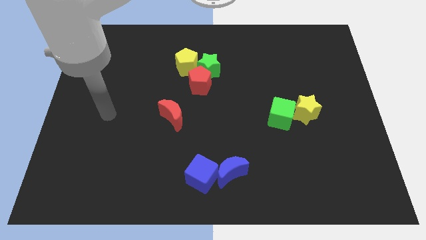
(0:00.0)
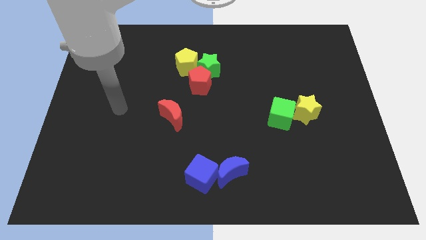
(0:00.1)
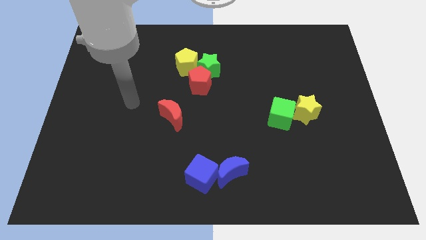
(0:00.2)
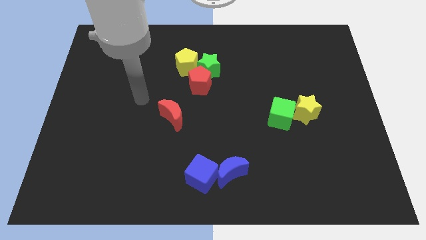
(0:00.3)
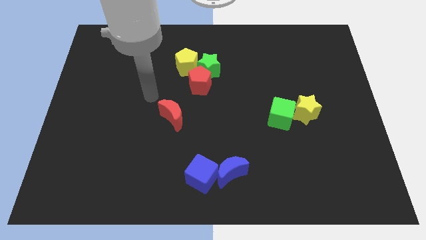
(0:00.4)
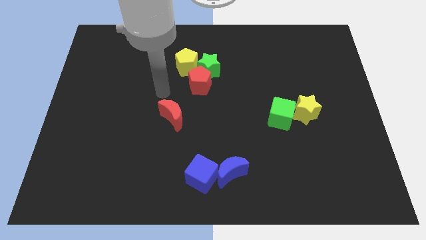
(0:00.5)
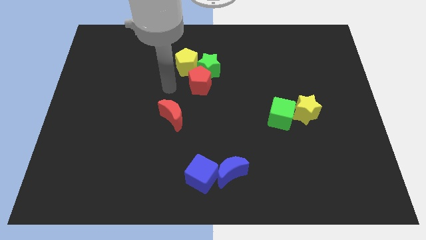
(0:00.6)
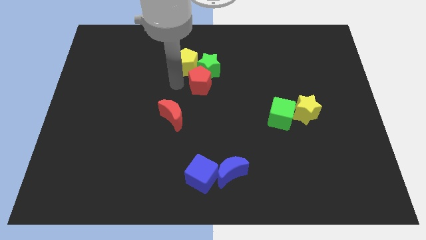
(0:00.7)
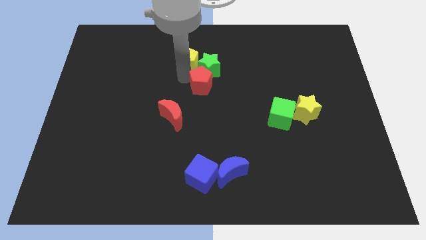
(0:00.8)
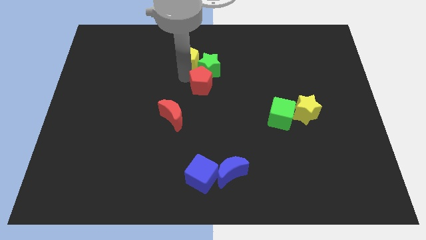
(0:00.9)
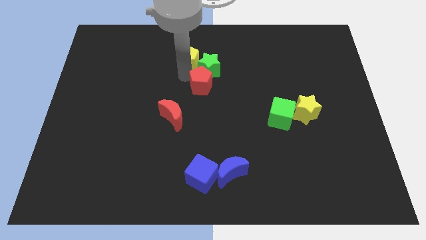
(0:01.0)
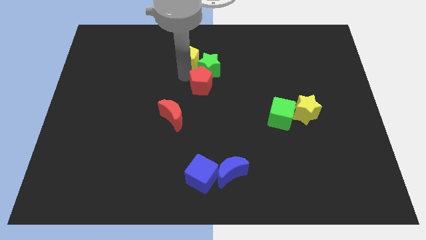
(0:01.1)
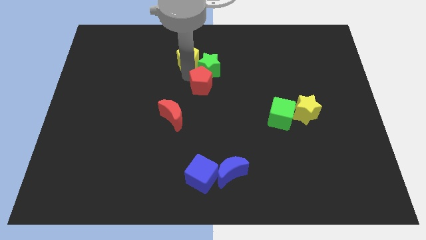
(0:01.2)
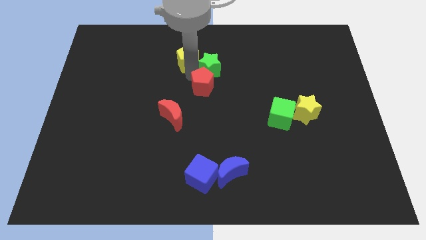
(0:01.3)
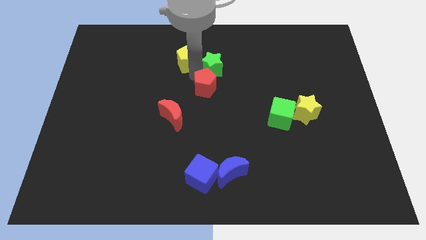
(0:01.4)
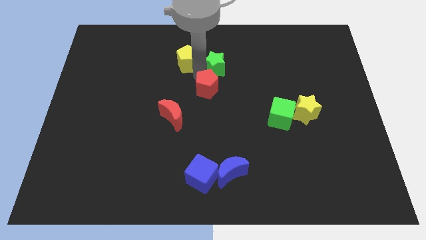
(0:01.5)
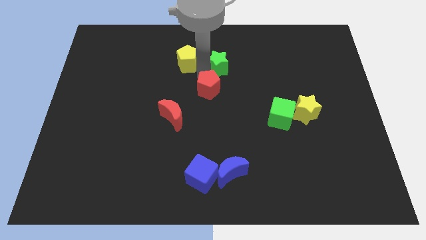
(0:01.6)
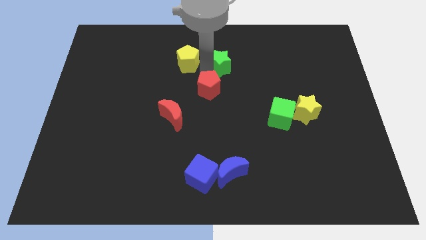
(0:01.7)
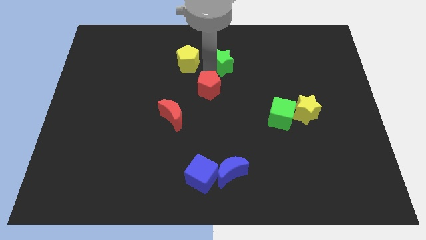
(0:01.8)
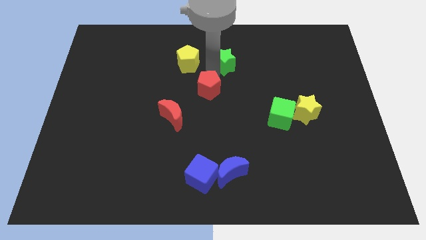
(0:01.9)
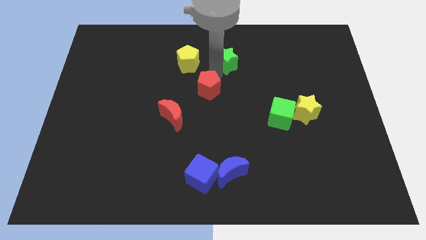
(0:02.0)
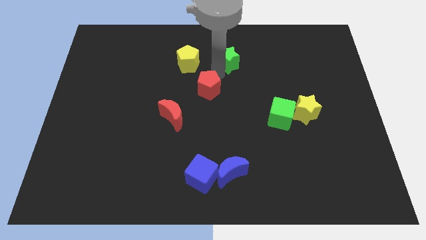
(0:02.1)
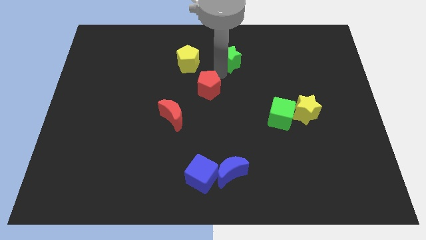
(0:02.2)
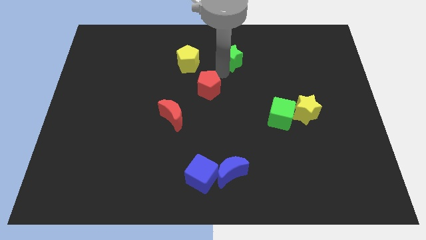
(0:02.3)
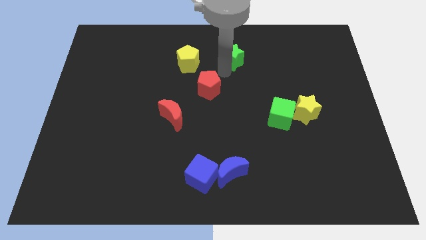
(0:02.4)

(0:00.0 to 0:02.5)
pull the green star apart from the red pentagon and yellow pentagon

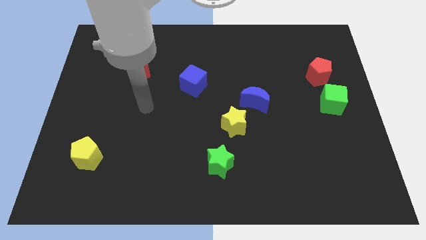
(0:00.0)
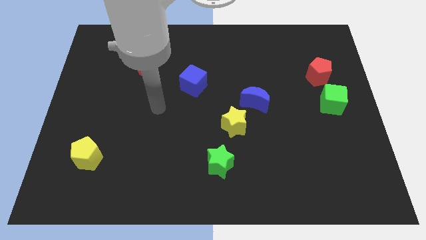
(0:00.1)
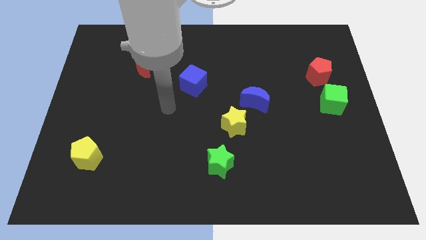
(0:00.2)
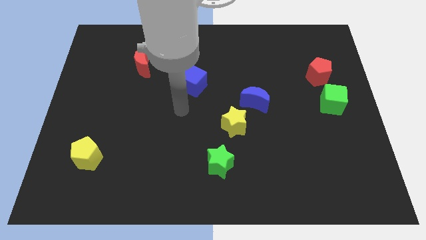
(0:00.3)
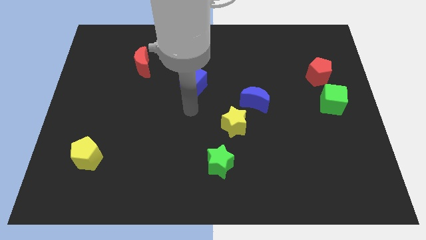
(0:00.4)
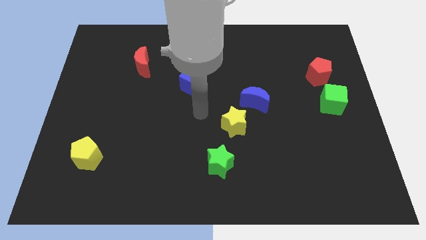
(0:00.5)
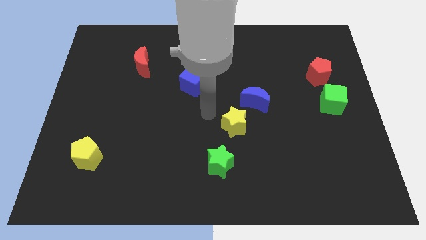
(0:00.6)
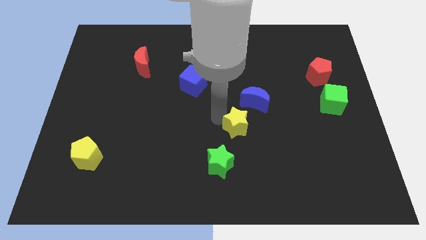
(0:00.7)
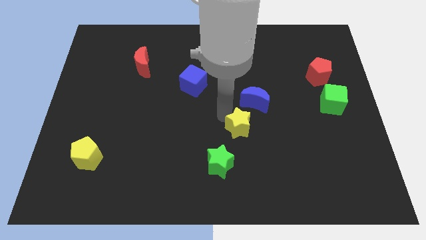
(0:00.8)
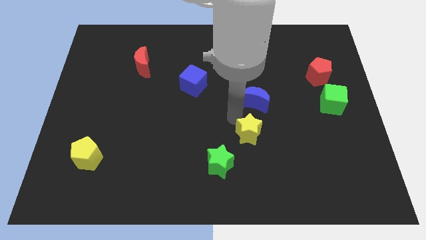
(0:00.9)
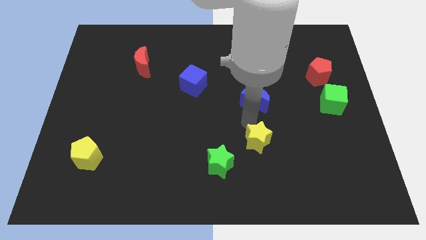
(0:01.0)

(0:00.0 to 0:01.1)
separate the blue moon from the yellow star

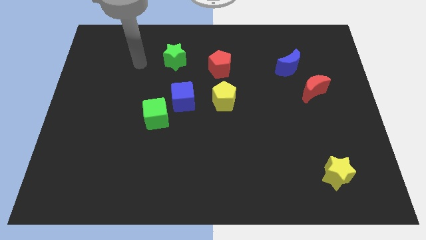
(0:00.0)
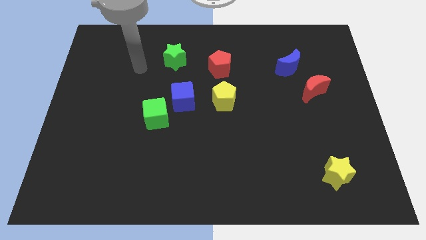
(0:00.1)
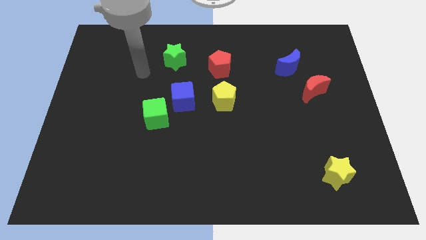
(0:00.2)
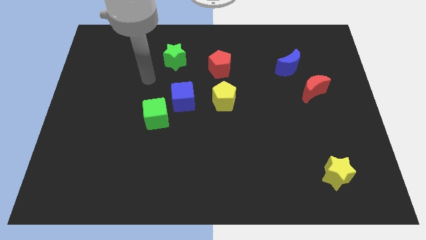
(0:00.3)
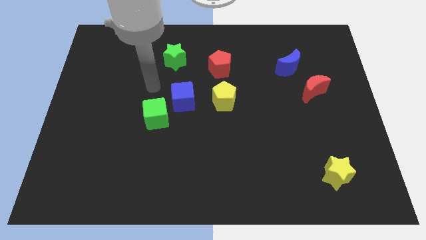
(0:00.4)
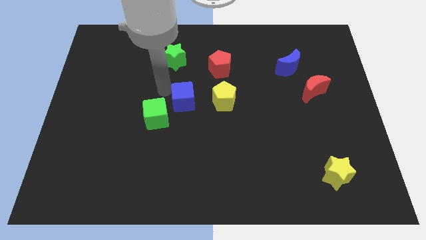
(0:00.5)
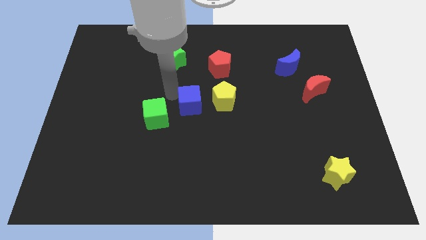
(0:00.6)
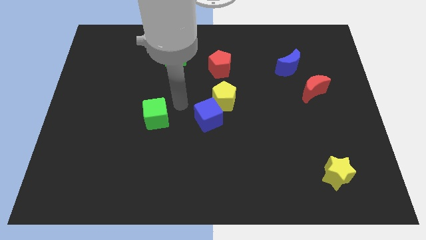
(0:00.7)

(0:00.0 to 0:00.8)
pull the green cube apart from the blue cube

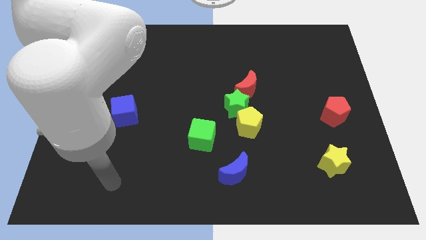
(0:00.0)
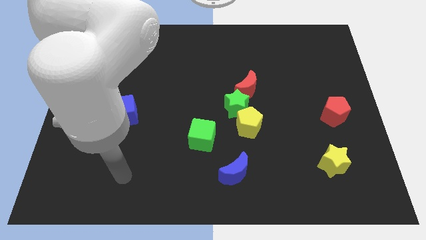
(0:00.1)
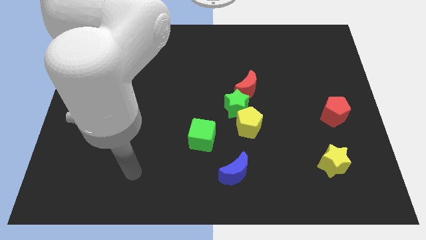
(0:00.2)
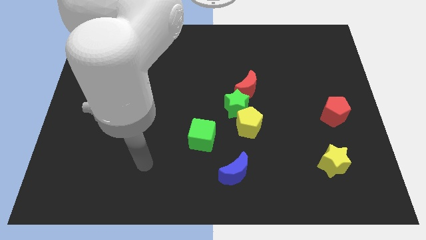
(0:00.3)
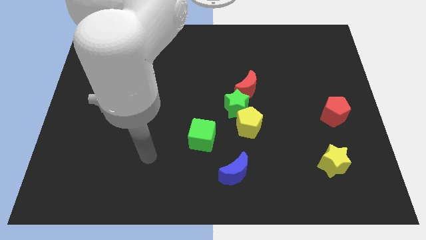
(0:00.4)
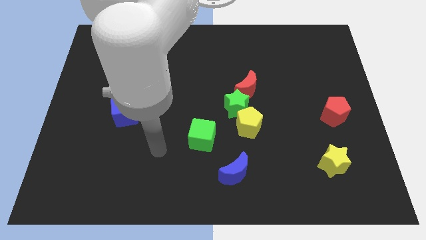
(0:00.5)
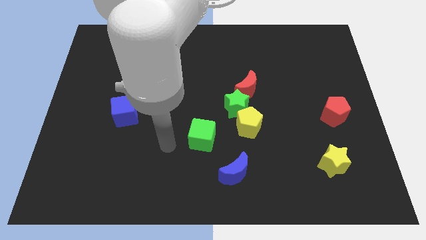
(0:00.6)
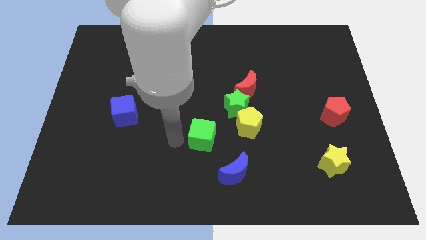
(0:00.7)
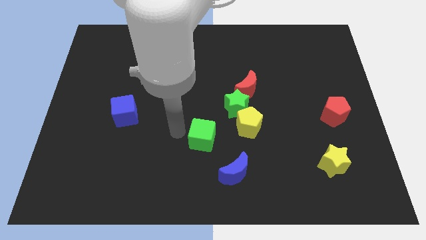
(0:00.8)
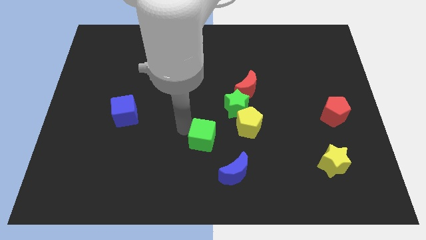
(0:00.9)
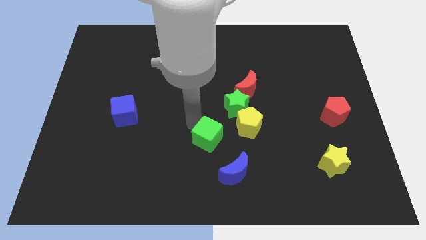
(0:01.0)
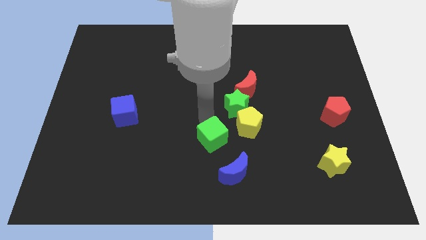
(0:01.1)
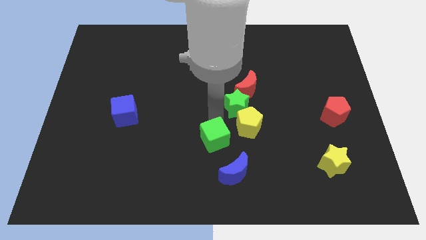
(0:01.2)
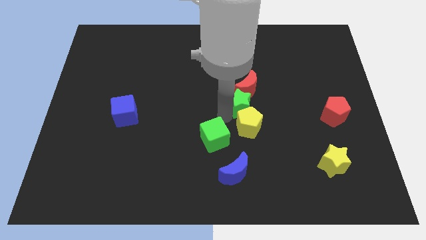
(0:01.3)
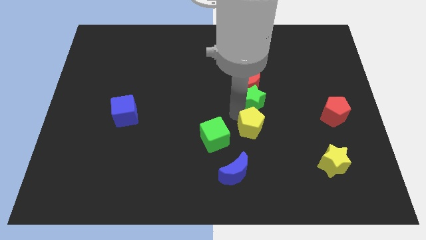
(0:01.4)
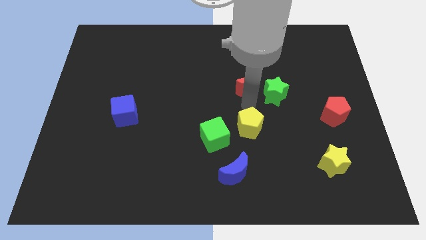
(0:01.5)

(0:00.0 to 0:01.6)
move the yellow pentagon away from the green star

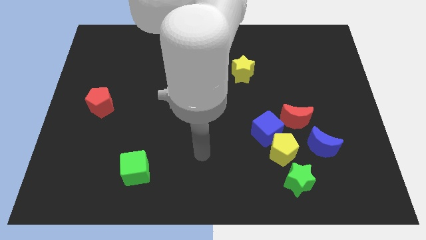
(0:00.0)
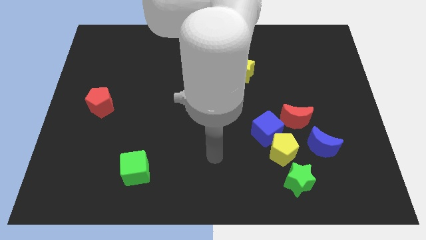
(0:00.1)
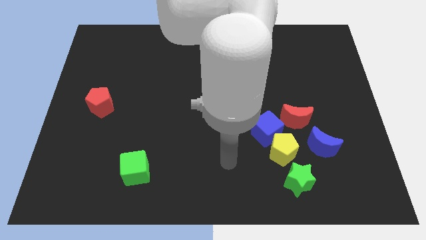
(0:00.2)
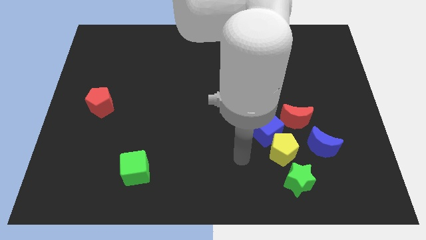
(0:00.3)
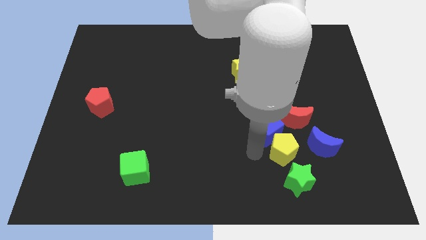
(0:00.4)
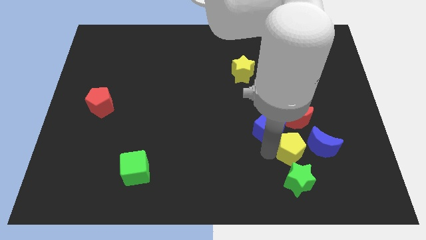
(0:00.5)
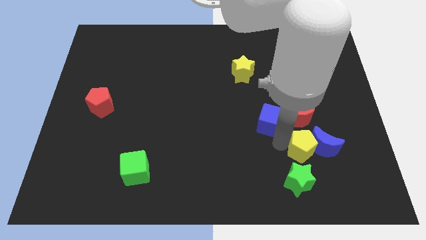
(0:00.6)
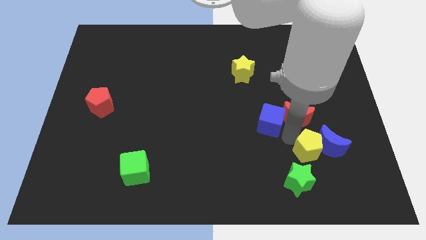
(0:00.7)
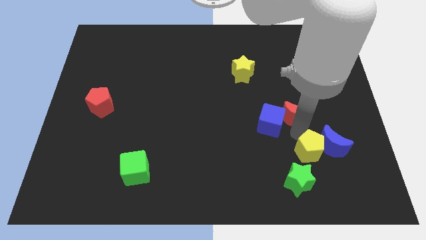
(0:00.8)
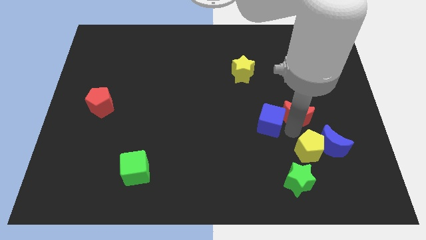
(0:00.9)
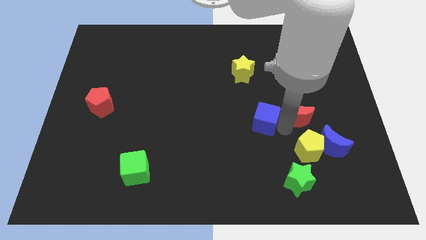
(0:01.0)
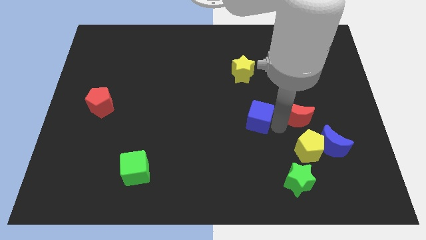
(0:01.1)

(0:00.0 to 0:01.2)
separate the blue cube from the yellow pentagon and red moon

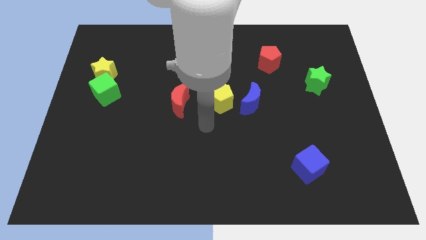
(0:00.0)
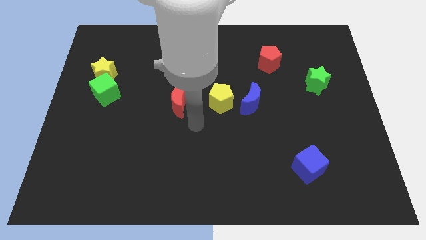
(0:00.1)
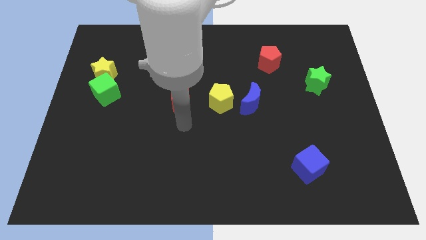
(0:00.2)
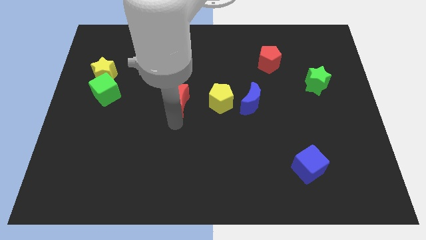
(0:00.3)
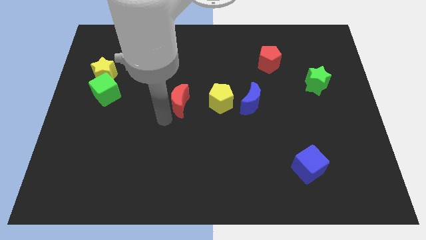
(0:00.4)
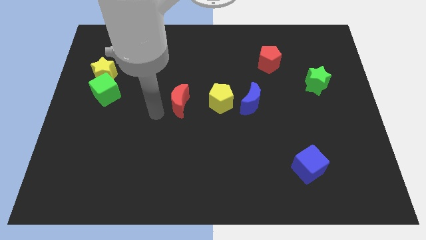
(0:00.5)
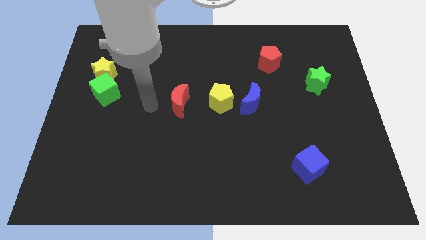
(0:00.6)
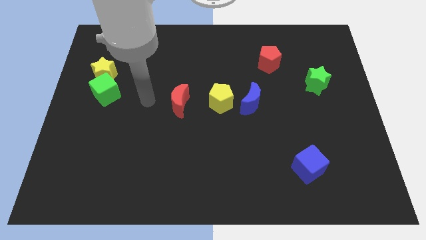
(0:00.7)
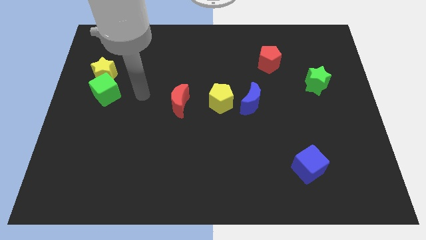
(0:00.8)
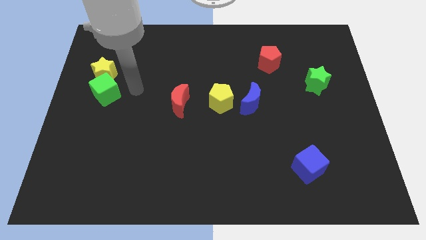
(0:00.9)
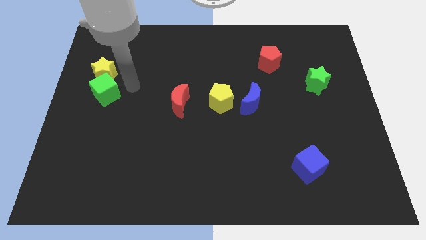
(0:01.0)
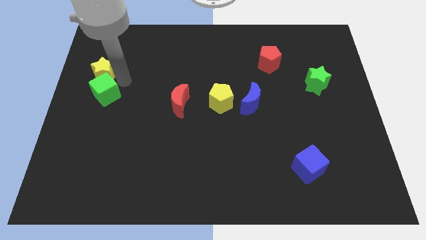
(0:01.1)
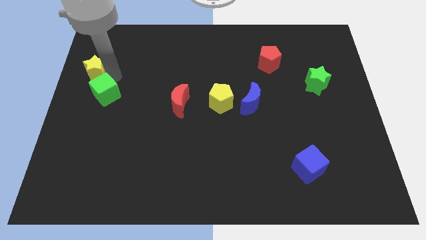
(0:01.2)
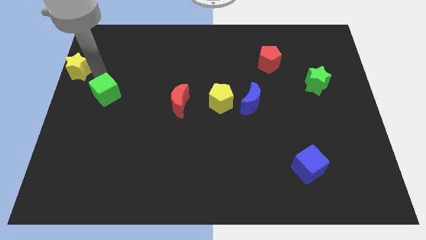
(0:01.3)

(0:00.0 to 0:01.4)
move the green cube away from the yellow star

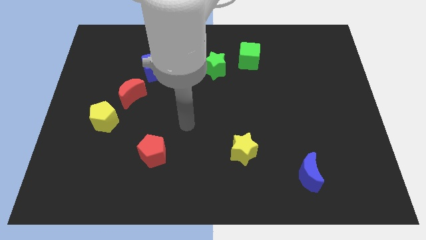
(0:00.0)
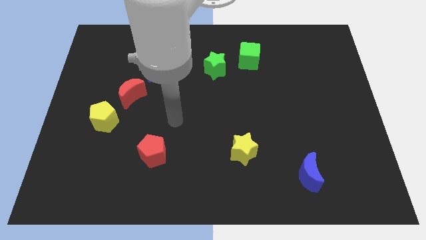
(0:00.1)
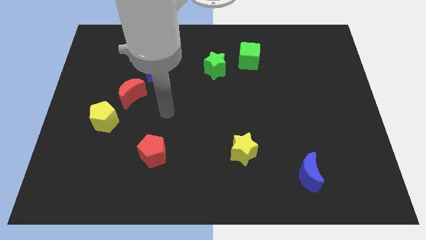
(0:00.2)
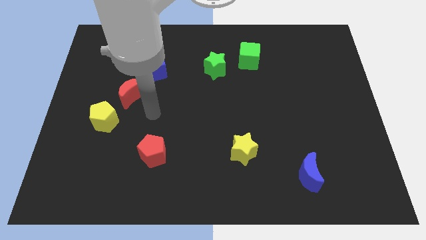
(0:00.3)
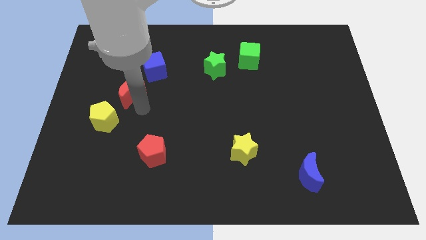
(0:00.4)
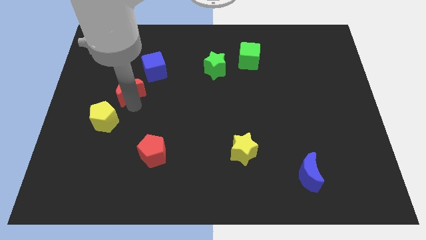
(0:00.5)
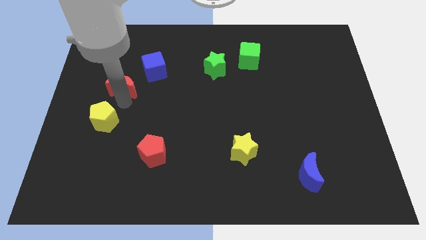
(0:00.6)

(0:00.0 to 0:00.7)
separate the yellow pentagon from the red moon
